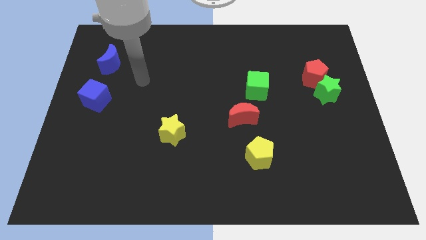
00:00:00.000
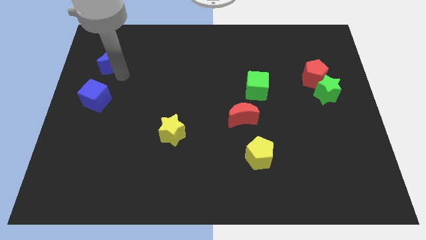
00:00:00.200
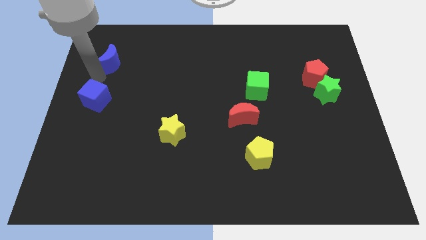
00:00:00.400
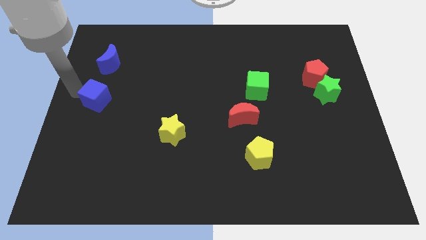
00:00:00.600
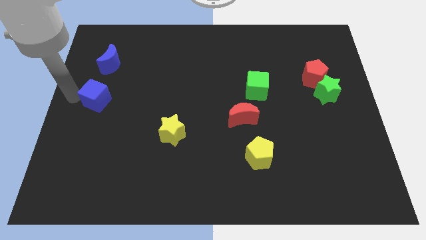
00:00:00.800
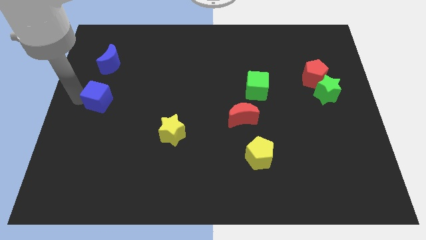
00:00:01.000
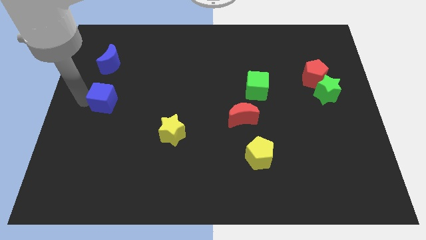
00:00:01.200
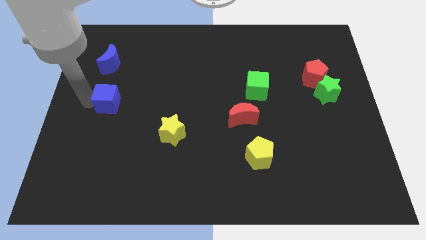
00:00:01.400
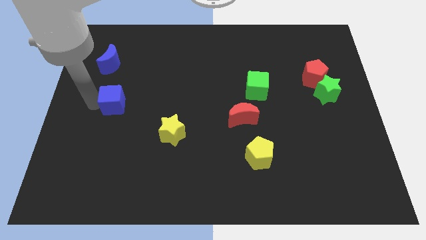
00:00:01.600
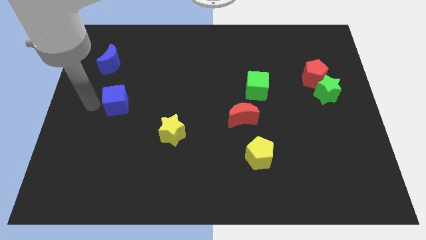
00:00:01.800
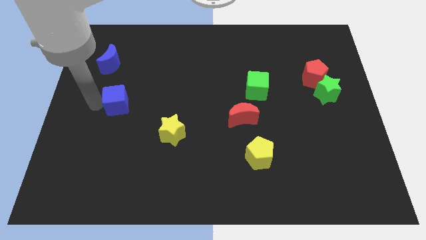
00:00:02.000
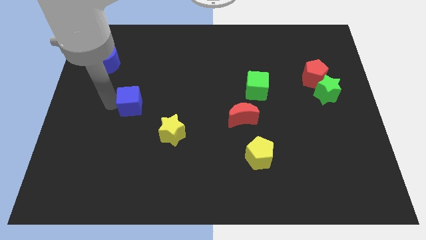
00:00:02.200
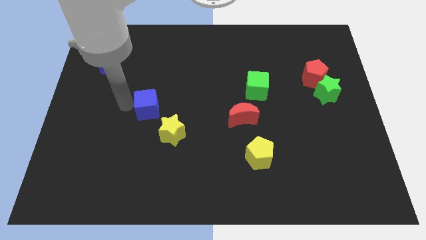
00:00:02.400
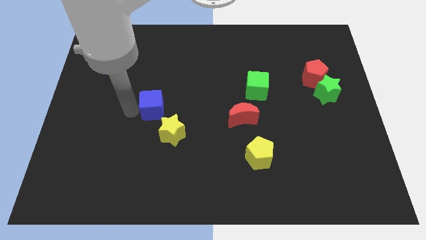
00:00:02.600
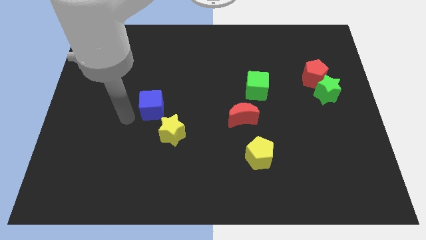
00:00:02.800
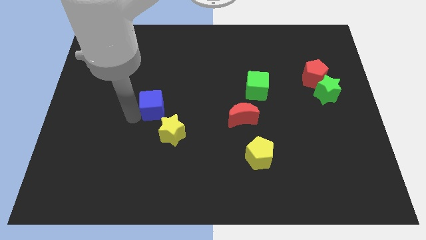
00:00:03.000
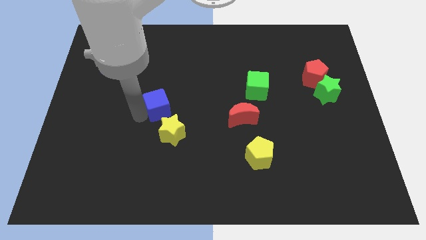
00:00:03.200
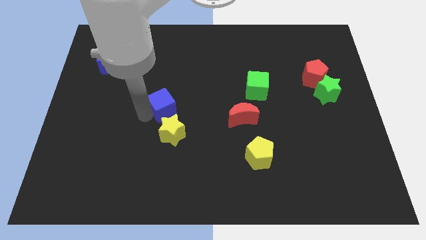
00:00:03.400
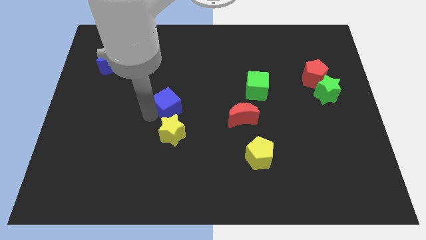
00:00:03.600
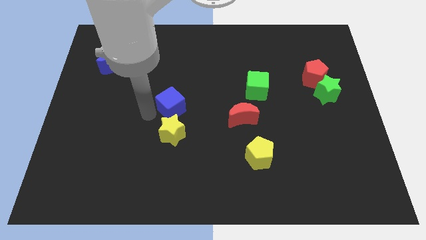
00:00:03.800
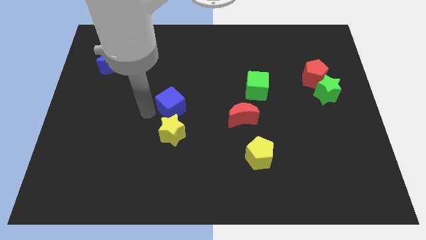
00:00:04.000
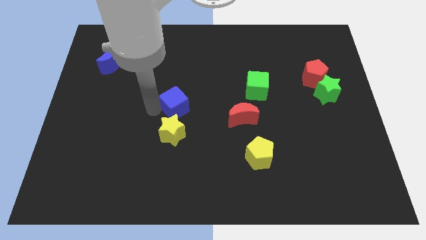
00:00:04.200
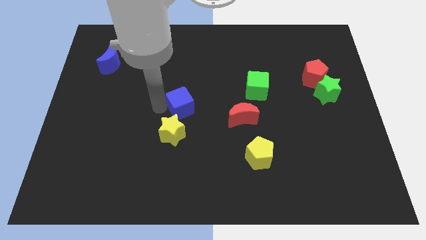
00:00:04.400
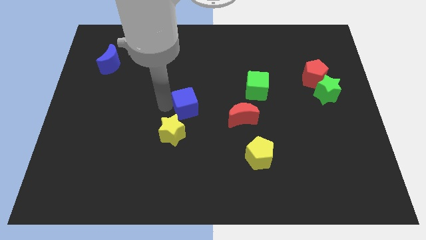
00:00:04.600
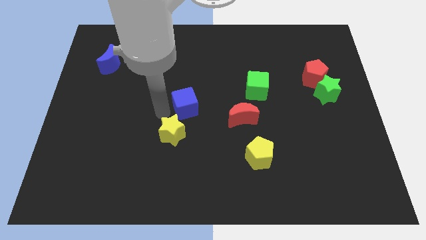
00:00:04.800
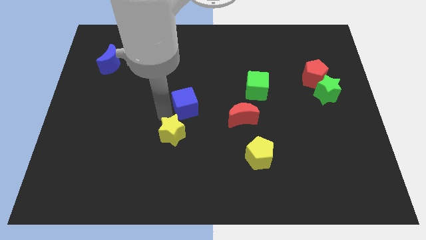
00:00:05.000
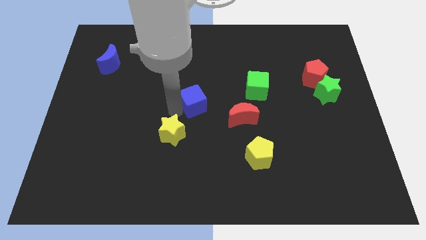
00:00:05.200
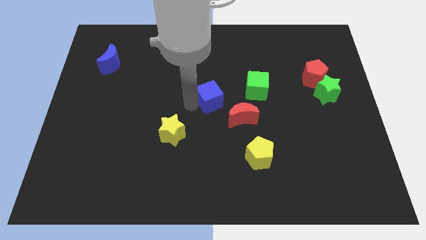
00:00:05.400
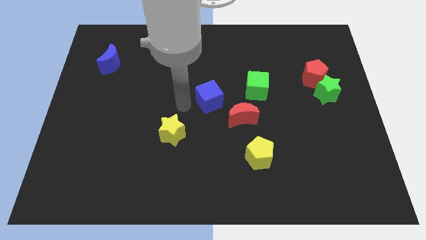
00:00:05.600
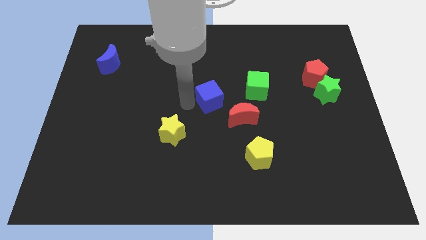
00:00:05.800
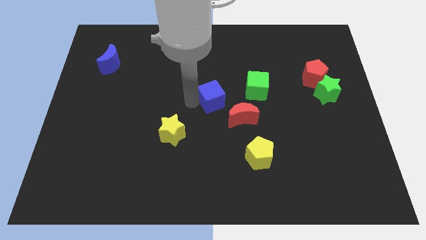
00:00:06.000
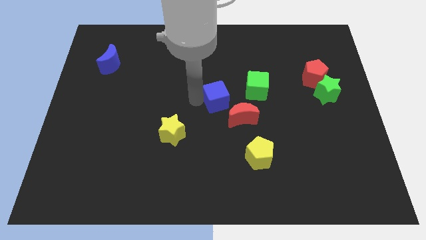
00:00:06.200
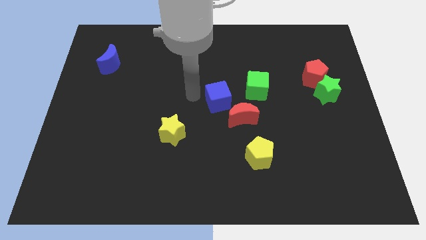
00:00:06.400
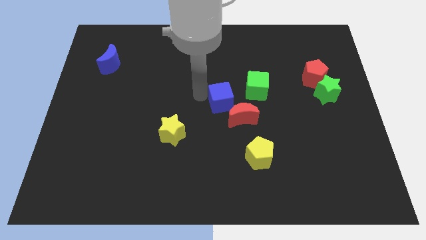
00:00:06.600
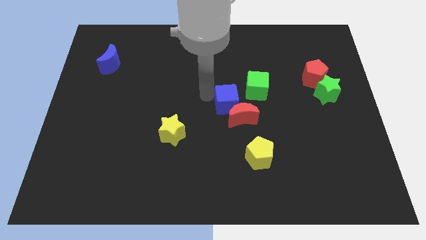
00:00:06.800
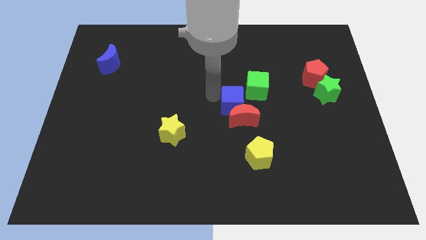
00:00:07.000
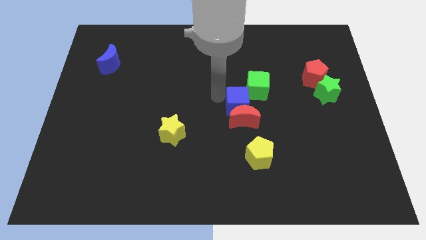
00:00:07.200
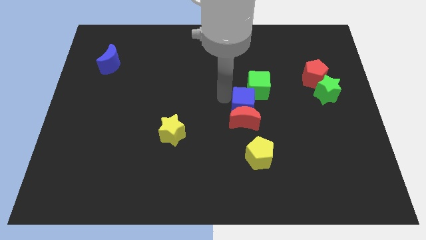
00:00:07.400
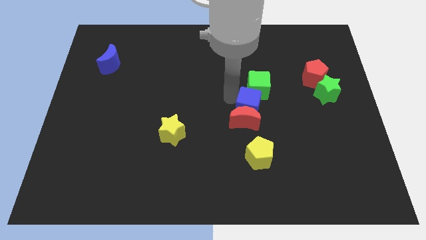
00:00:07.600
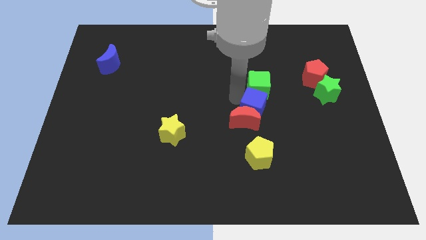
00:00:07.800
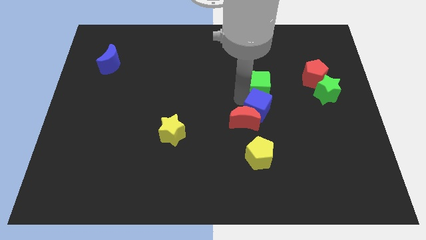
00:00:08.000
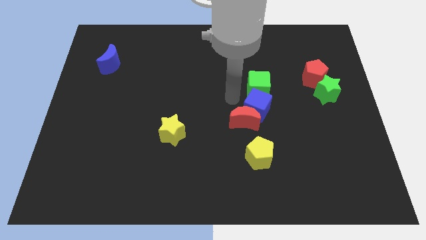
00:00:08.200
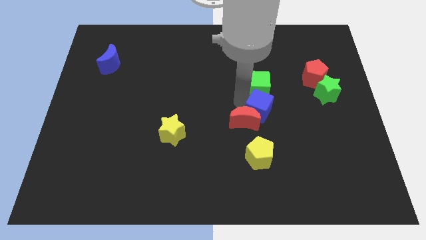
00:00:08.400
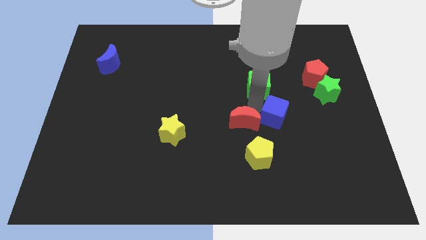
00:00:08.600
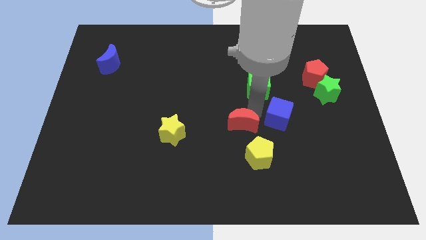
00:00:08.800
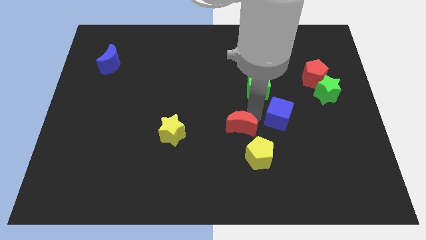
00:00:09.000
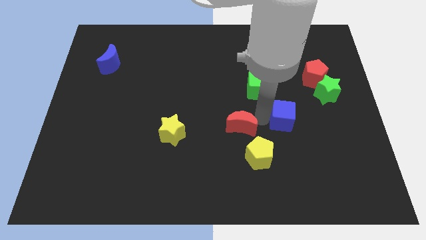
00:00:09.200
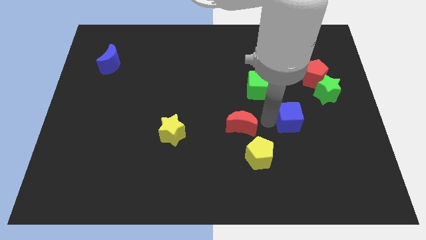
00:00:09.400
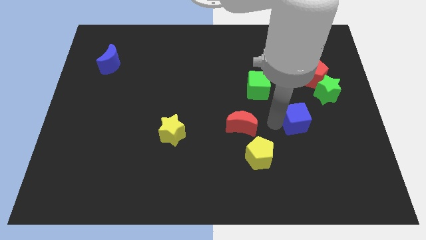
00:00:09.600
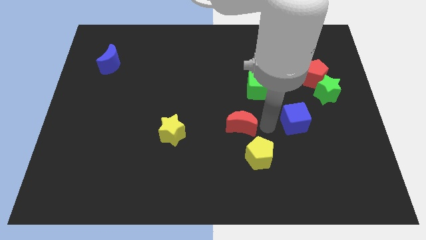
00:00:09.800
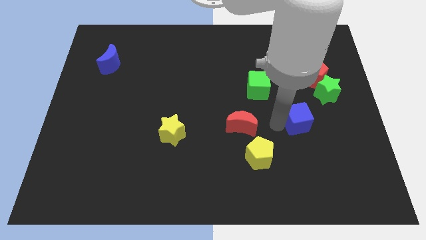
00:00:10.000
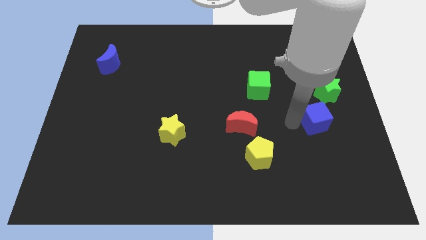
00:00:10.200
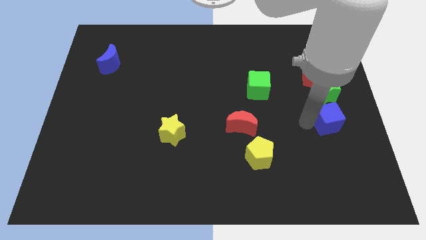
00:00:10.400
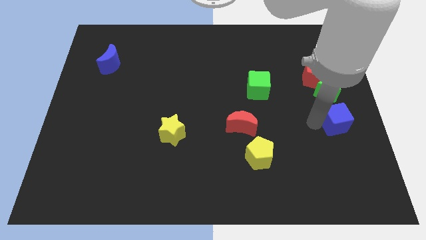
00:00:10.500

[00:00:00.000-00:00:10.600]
move the blue cube to the right side
